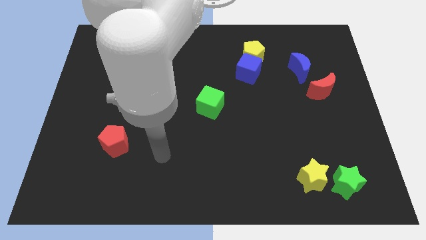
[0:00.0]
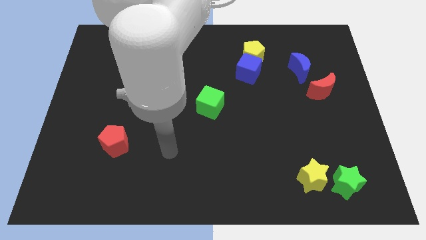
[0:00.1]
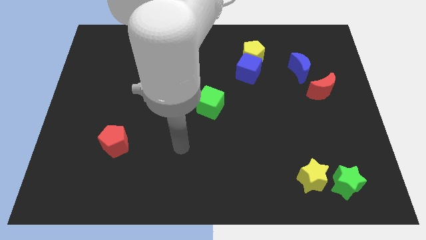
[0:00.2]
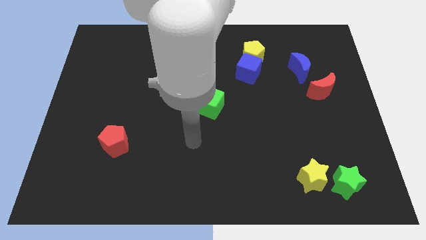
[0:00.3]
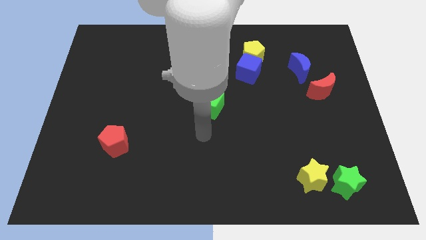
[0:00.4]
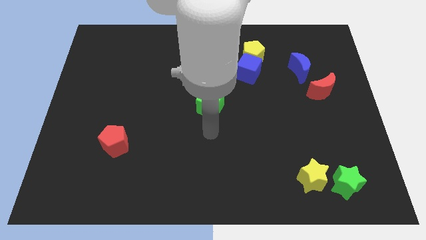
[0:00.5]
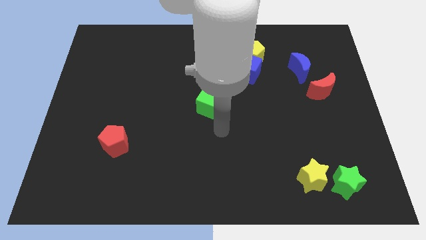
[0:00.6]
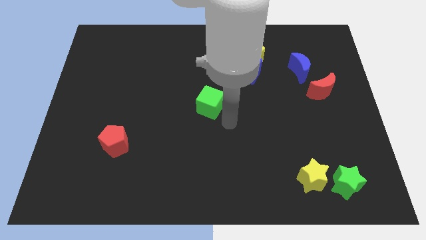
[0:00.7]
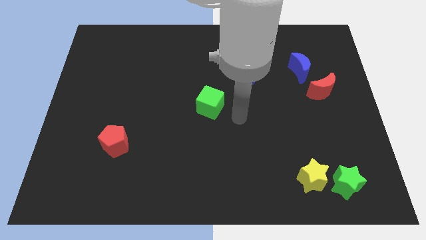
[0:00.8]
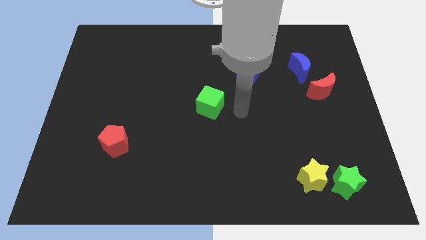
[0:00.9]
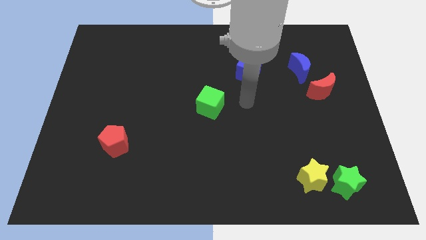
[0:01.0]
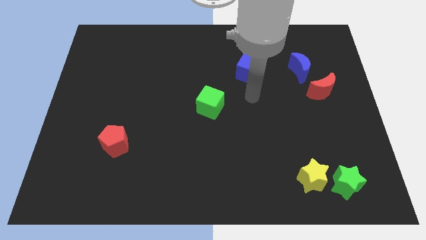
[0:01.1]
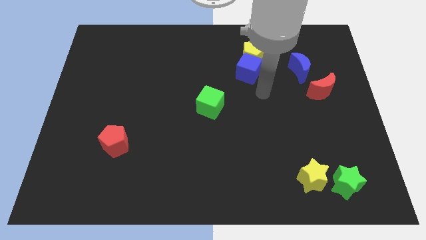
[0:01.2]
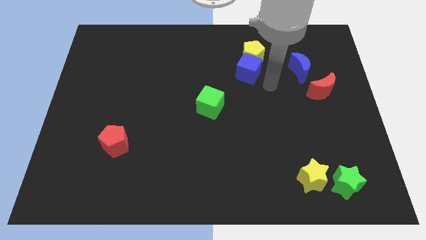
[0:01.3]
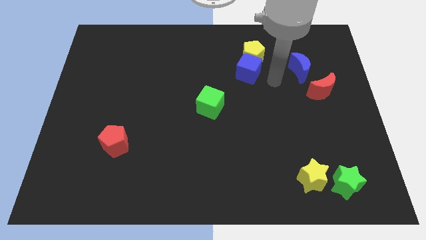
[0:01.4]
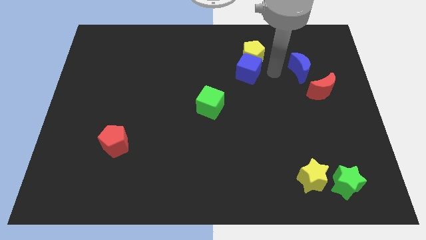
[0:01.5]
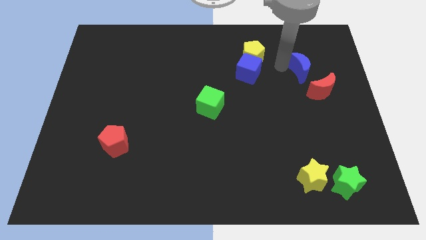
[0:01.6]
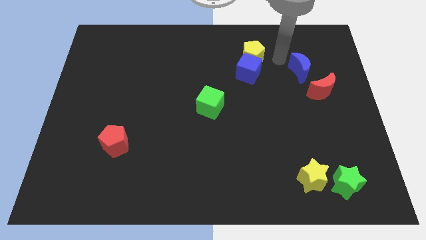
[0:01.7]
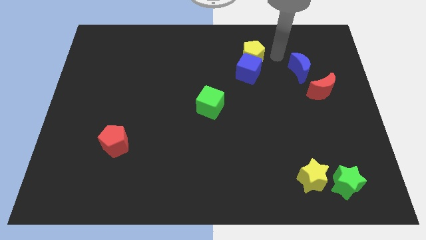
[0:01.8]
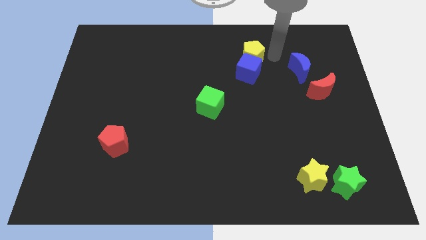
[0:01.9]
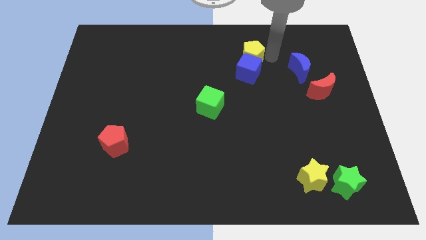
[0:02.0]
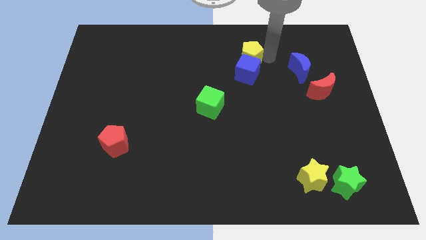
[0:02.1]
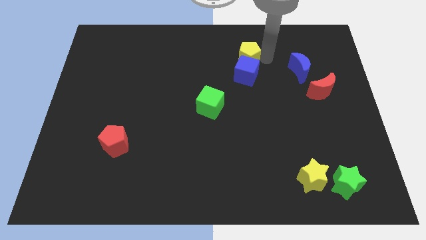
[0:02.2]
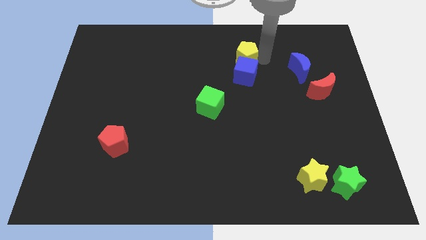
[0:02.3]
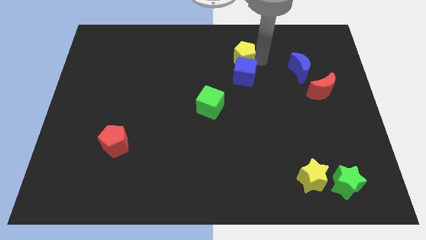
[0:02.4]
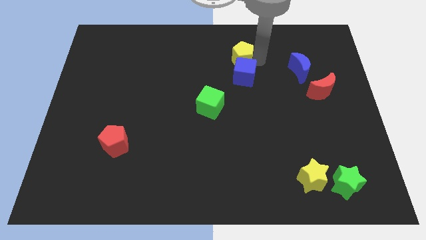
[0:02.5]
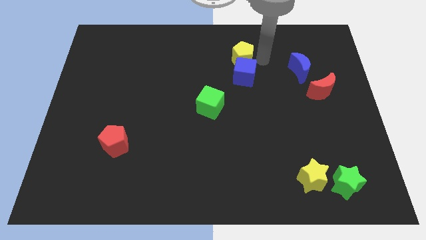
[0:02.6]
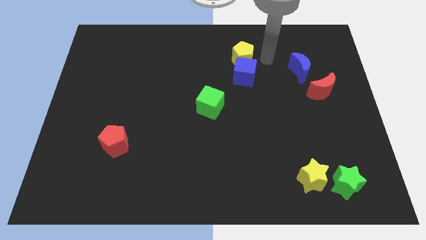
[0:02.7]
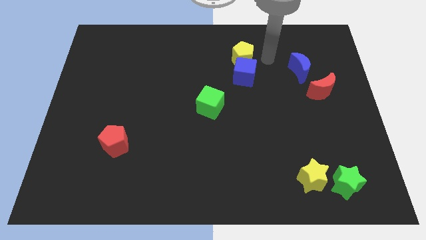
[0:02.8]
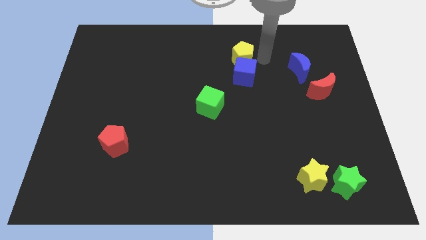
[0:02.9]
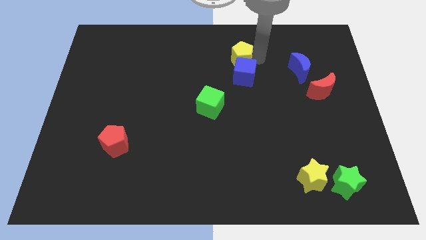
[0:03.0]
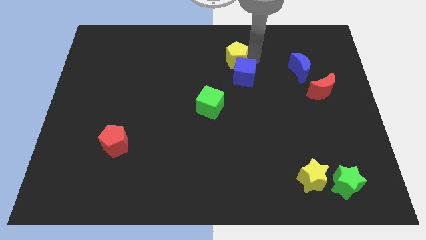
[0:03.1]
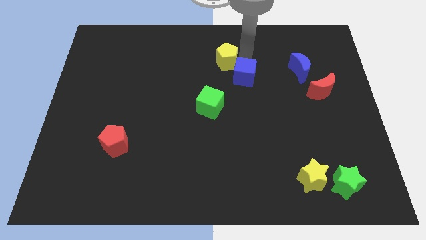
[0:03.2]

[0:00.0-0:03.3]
push the yellow pentagon slightly left

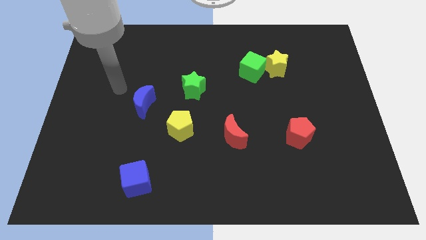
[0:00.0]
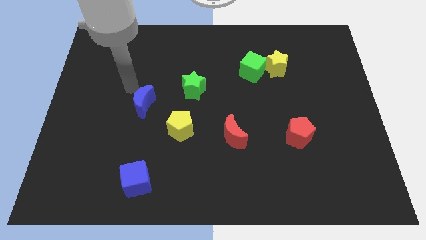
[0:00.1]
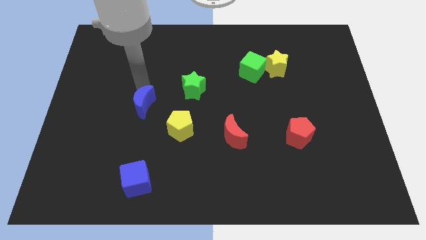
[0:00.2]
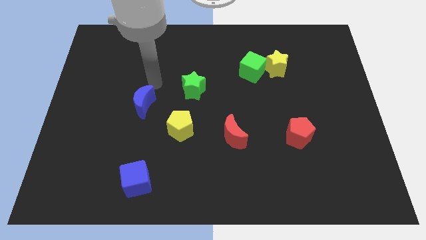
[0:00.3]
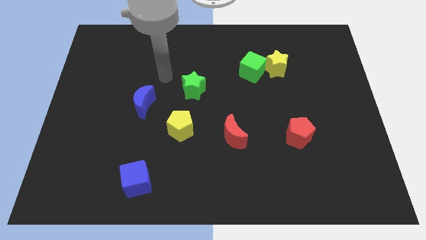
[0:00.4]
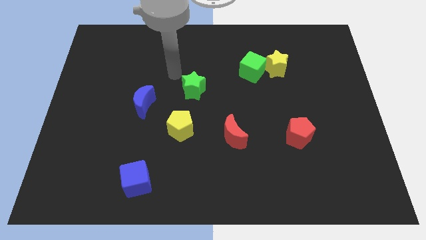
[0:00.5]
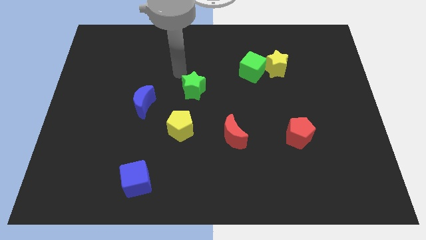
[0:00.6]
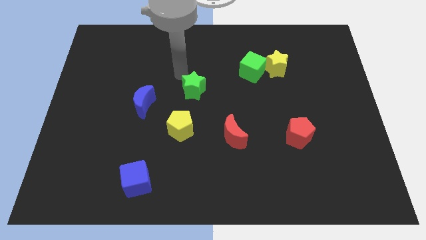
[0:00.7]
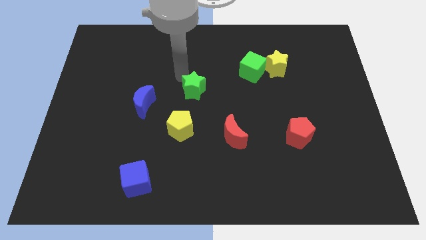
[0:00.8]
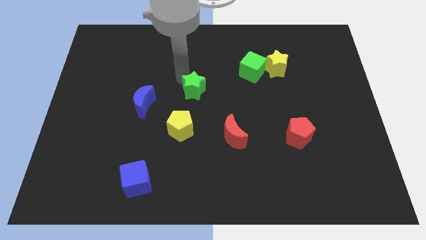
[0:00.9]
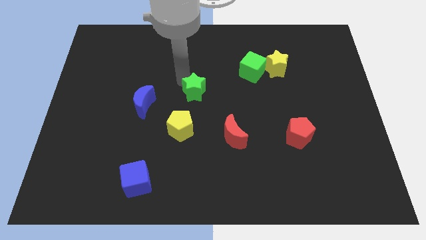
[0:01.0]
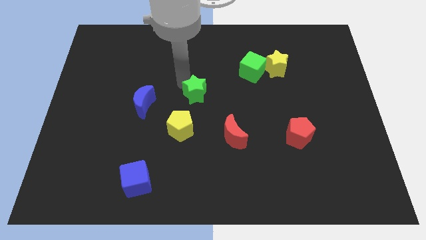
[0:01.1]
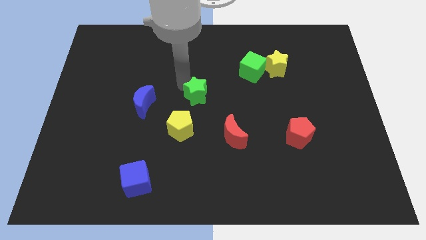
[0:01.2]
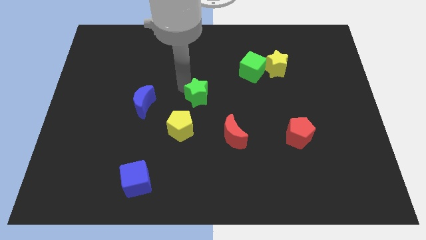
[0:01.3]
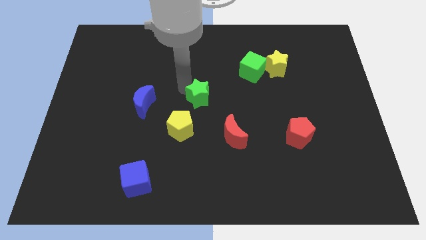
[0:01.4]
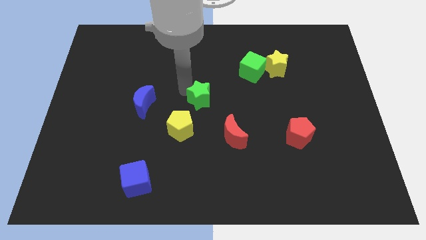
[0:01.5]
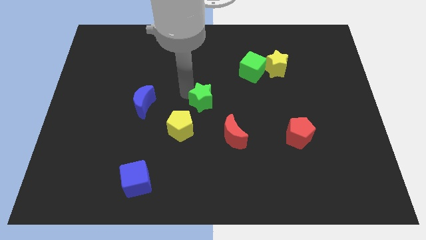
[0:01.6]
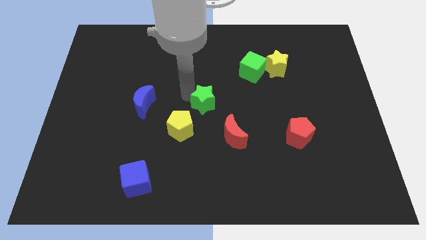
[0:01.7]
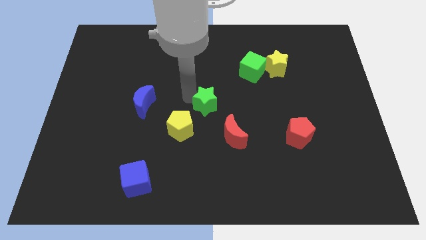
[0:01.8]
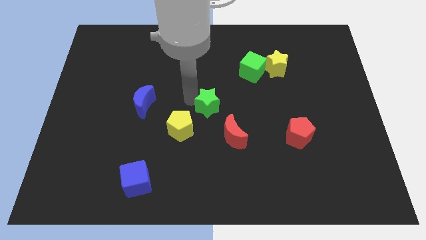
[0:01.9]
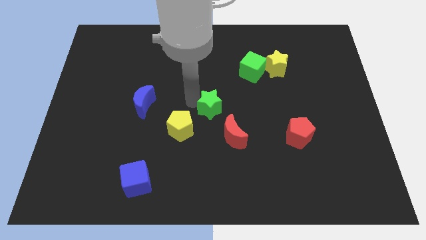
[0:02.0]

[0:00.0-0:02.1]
slightly move the green star down and right

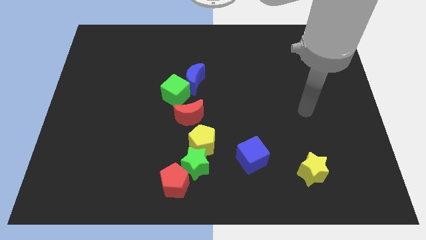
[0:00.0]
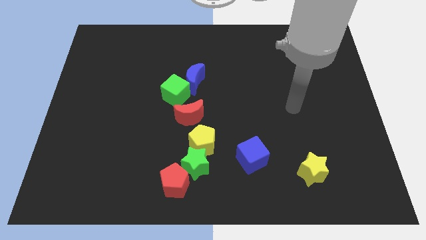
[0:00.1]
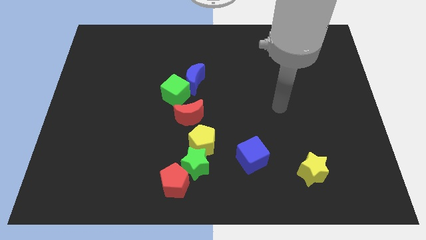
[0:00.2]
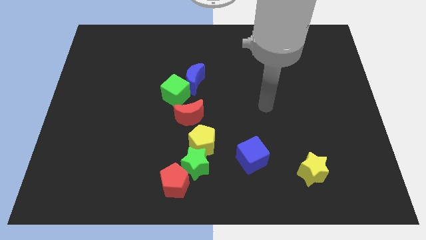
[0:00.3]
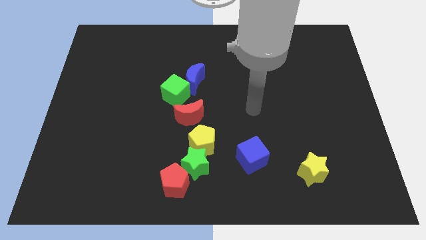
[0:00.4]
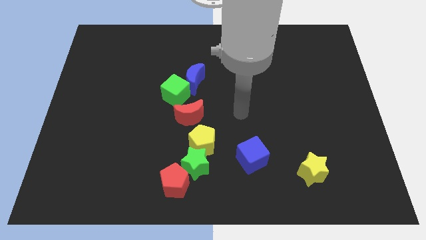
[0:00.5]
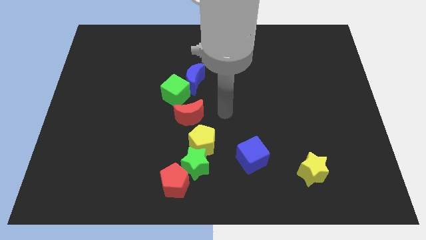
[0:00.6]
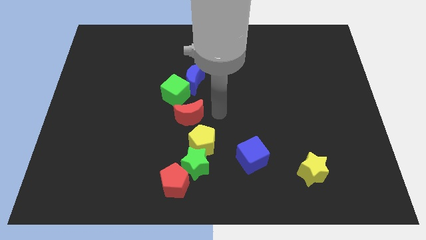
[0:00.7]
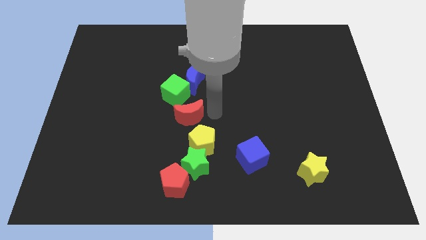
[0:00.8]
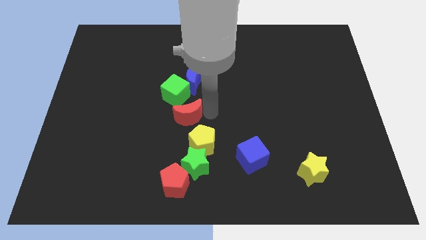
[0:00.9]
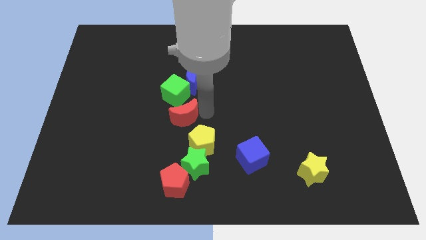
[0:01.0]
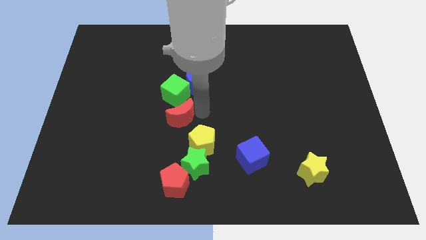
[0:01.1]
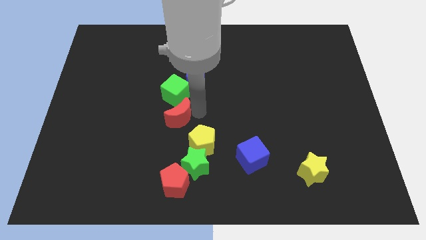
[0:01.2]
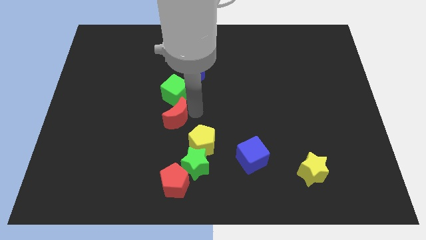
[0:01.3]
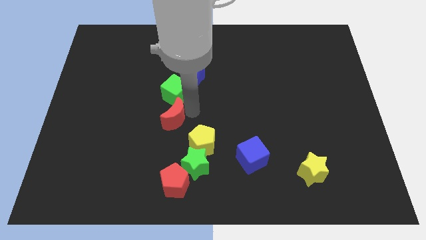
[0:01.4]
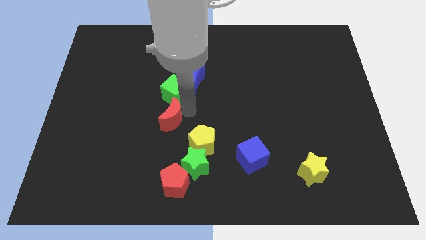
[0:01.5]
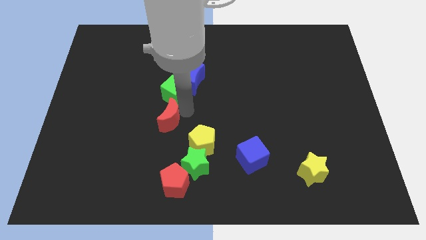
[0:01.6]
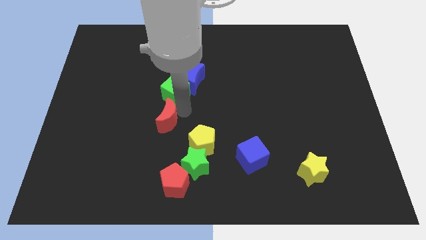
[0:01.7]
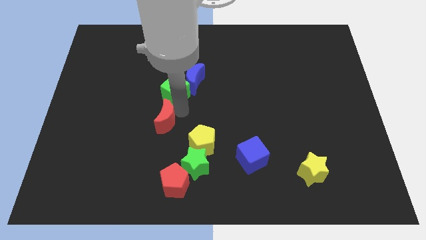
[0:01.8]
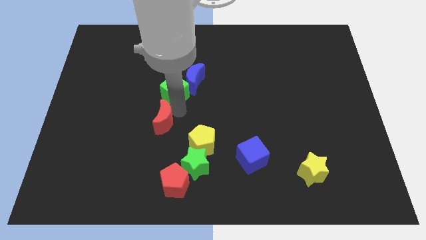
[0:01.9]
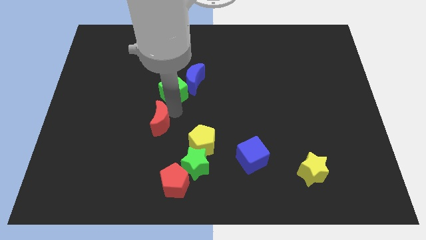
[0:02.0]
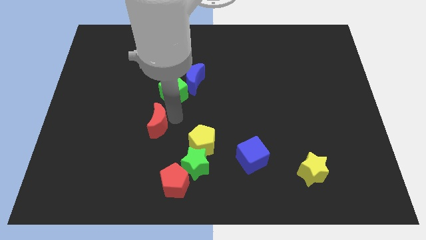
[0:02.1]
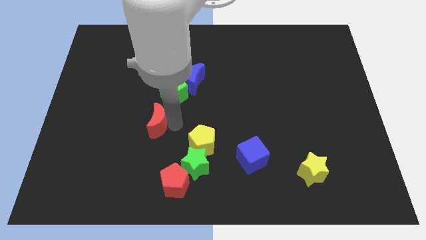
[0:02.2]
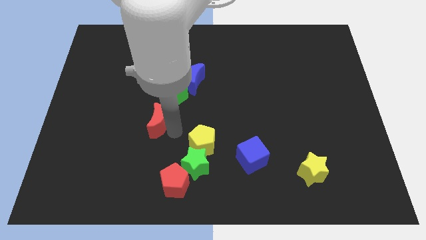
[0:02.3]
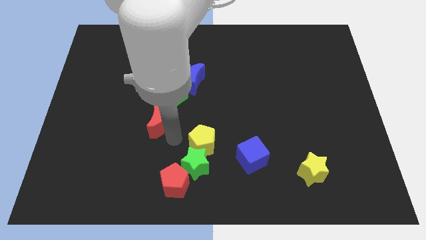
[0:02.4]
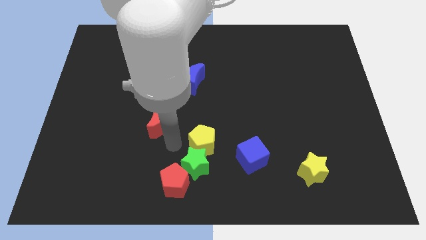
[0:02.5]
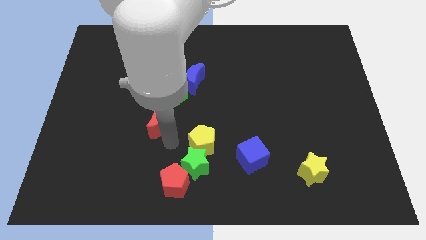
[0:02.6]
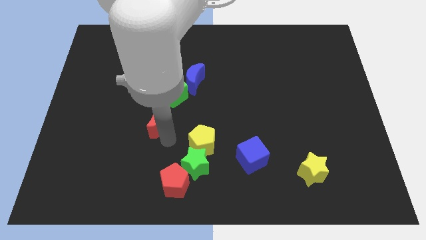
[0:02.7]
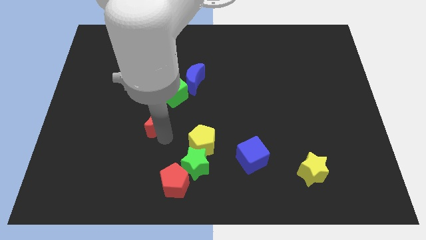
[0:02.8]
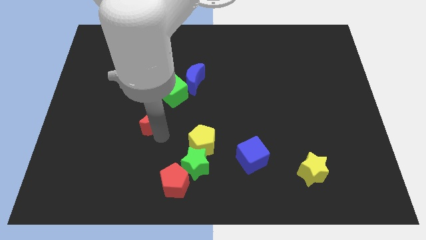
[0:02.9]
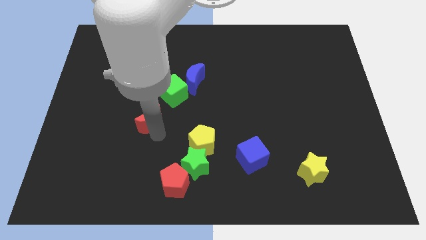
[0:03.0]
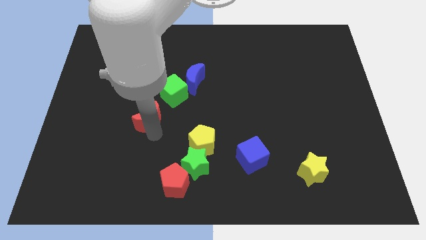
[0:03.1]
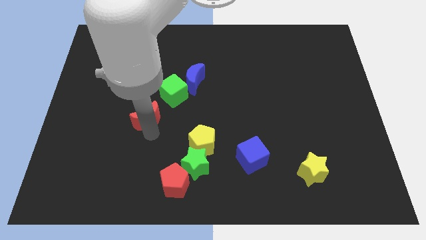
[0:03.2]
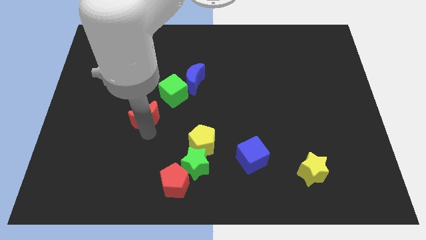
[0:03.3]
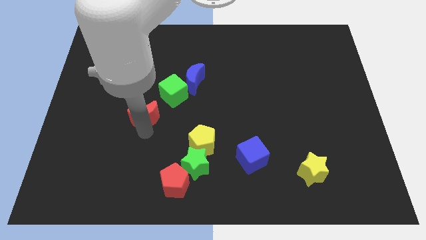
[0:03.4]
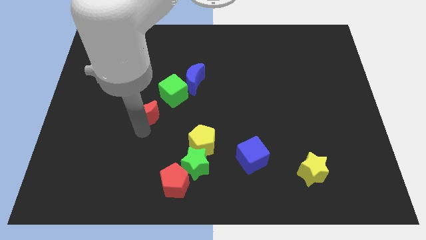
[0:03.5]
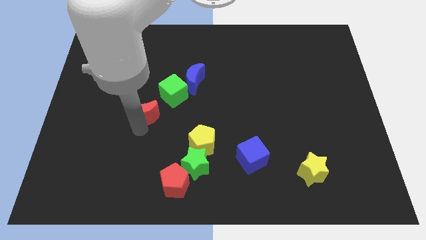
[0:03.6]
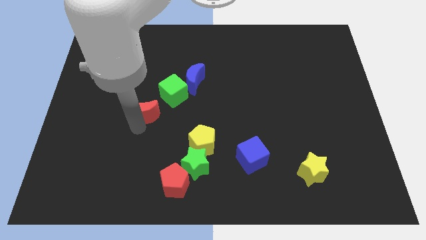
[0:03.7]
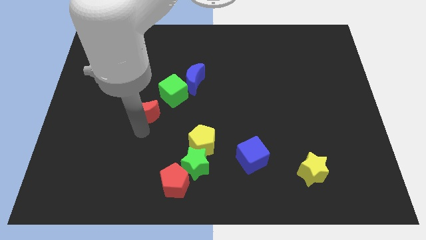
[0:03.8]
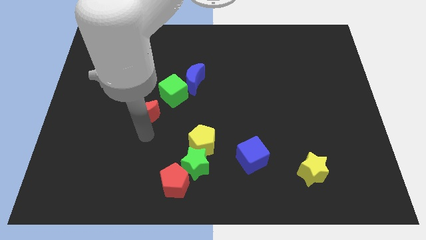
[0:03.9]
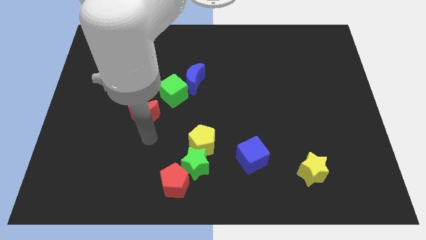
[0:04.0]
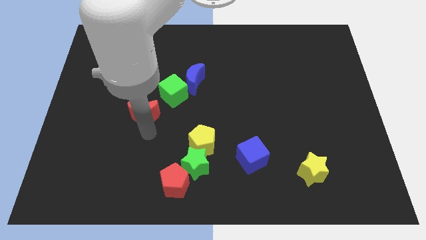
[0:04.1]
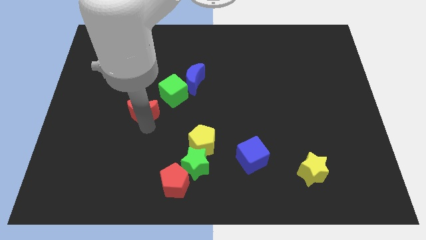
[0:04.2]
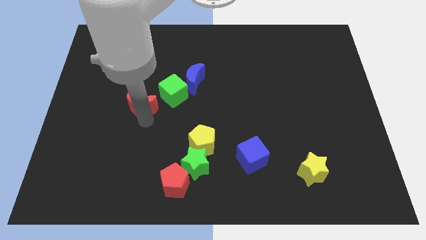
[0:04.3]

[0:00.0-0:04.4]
push the red moon slightly diagonally up and left
